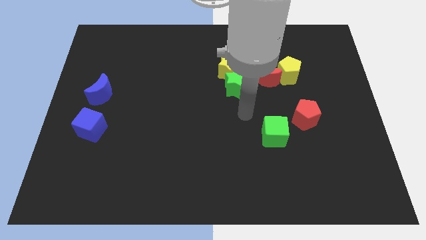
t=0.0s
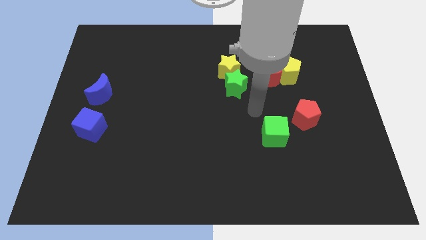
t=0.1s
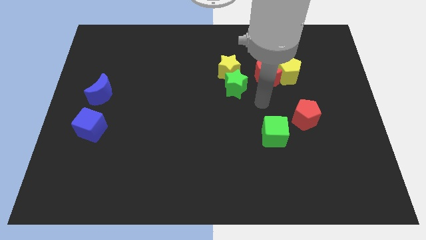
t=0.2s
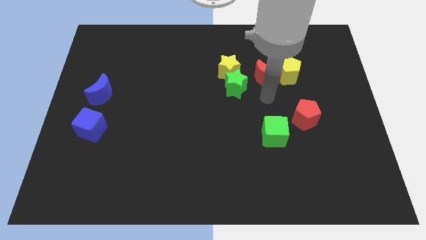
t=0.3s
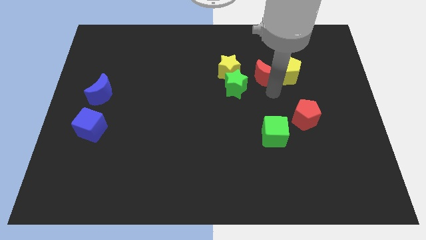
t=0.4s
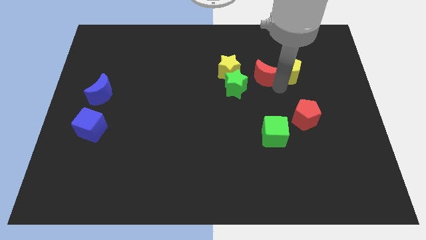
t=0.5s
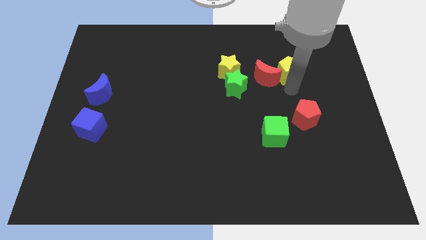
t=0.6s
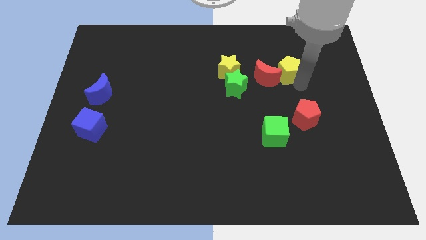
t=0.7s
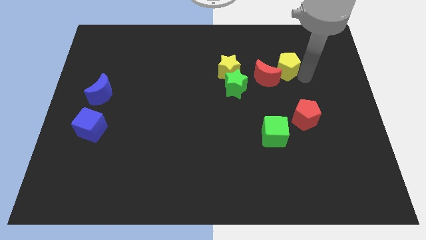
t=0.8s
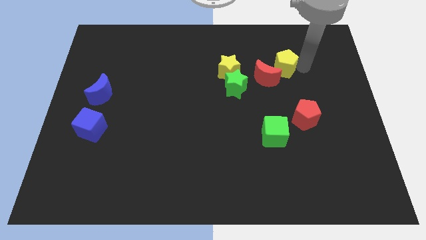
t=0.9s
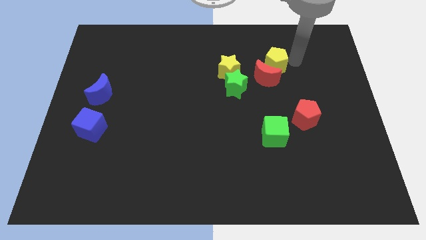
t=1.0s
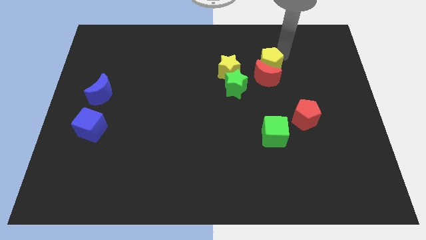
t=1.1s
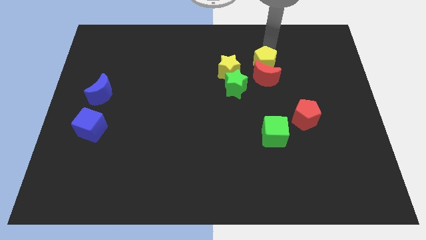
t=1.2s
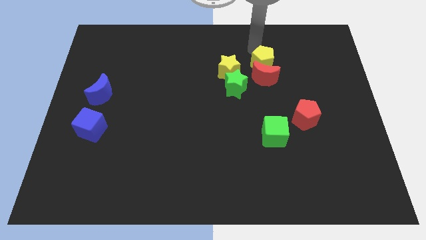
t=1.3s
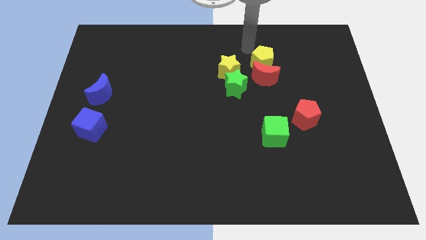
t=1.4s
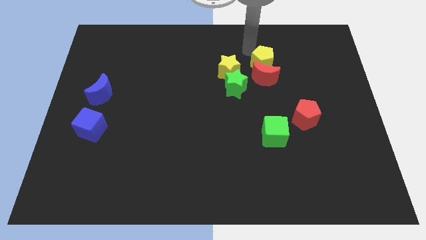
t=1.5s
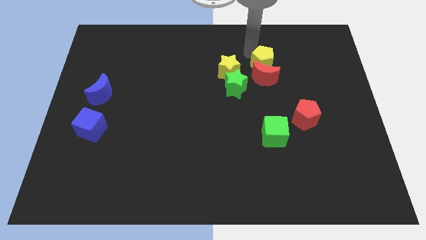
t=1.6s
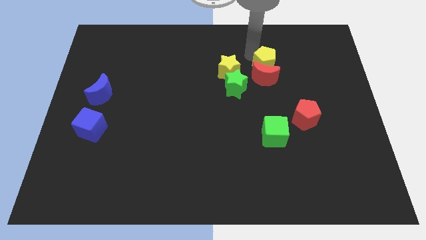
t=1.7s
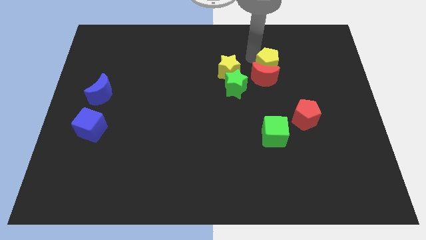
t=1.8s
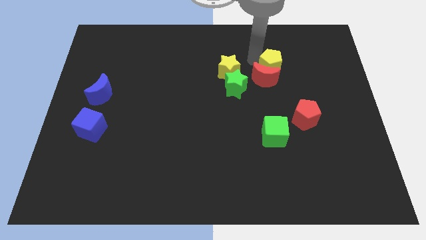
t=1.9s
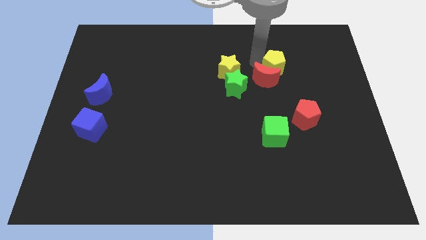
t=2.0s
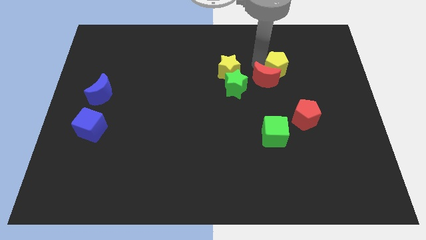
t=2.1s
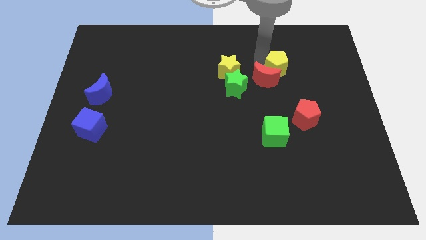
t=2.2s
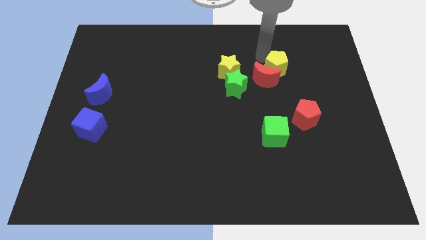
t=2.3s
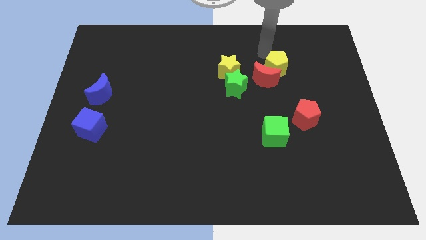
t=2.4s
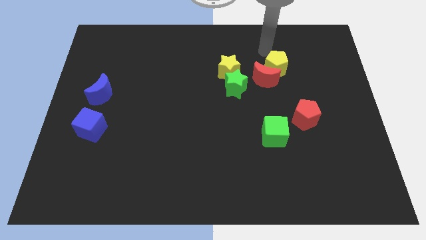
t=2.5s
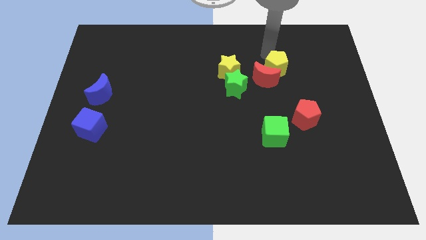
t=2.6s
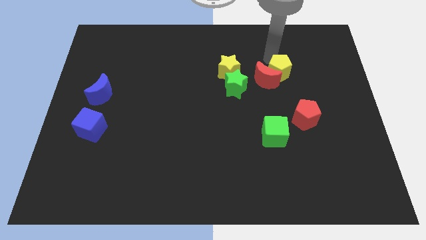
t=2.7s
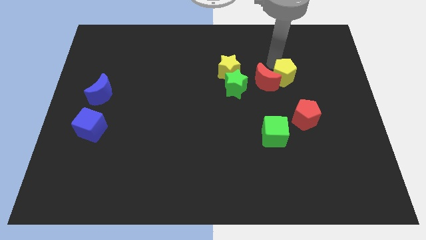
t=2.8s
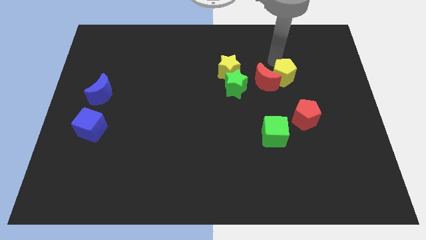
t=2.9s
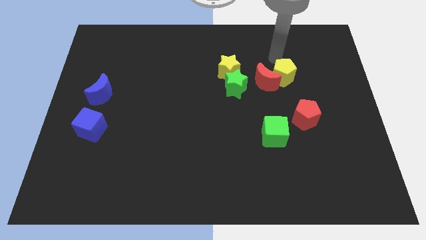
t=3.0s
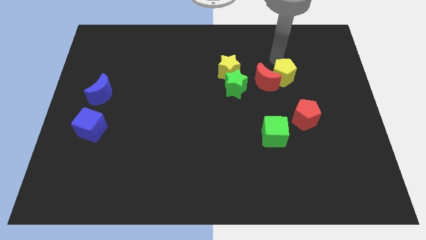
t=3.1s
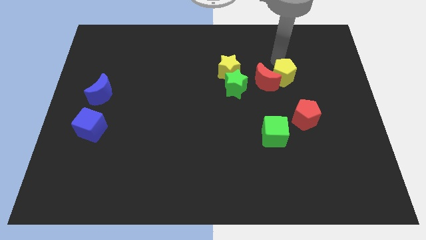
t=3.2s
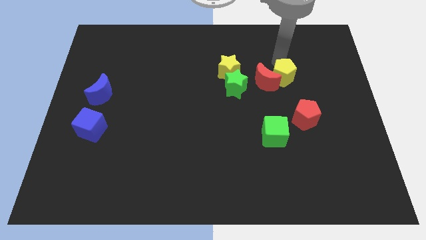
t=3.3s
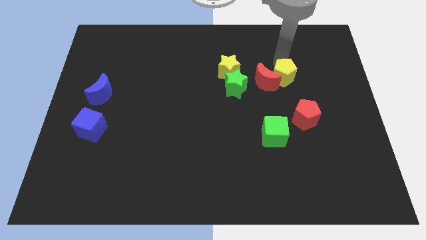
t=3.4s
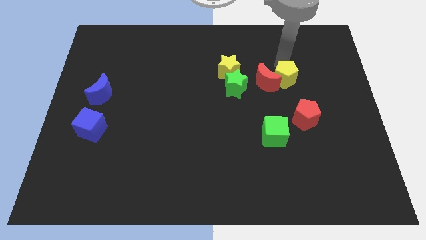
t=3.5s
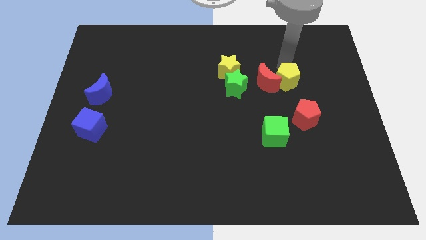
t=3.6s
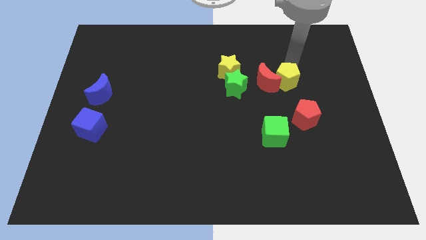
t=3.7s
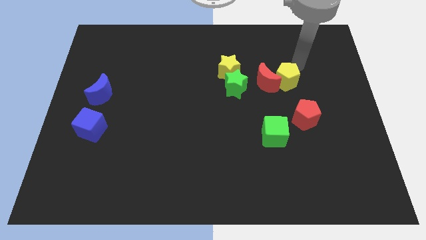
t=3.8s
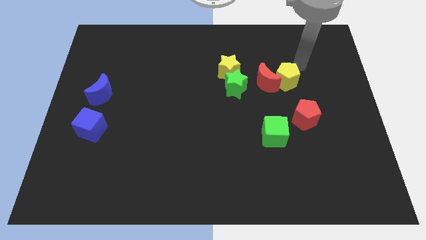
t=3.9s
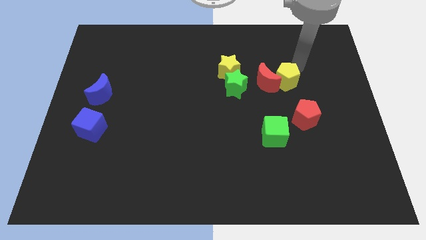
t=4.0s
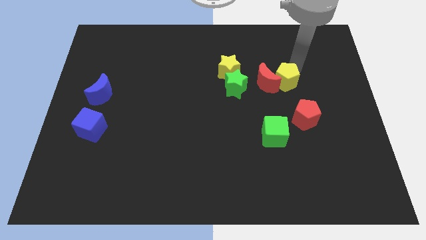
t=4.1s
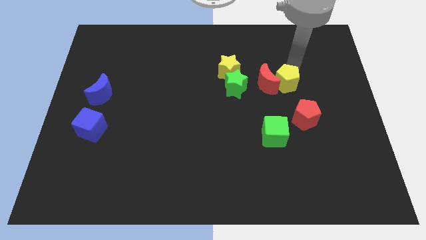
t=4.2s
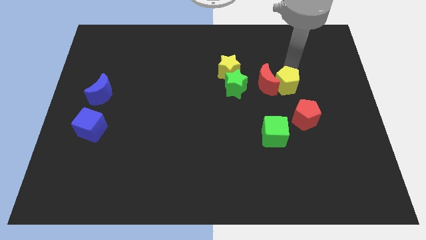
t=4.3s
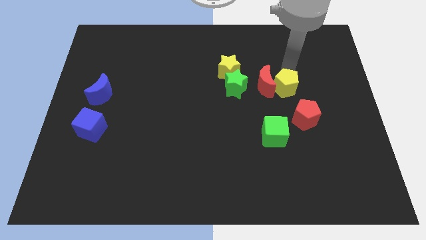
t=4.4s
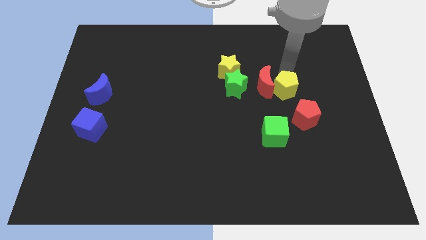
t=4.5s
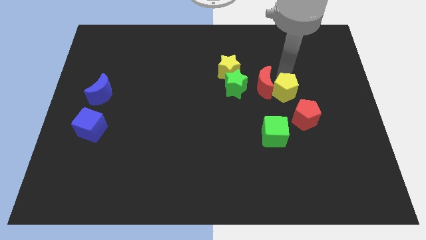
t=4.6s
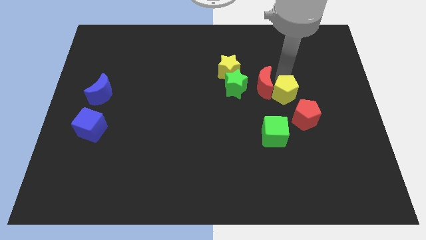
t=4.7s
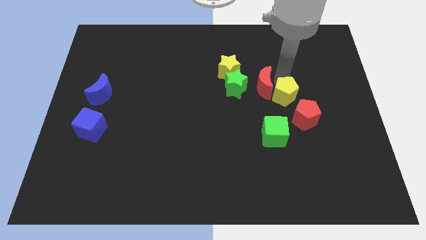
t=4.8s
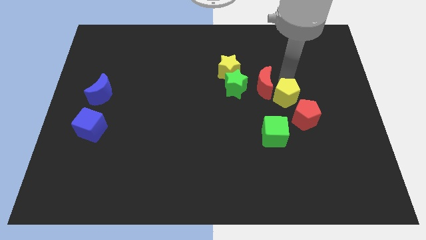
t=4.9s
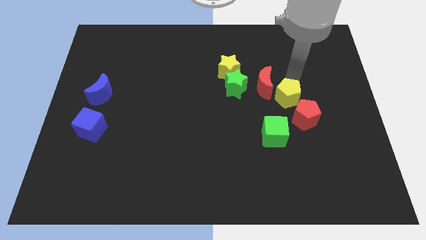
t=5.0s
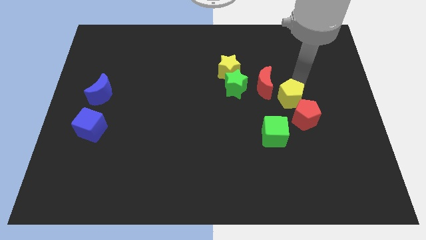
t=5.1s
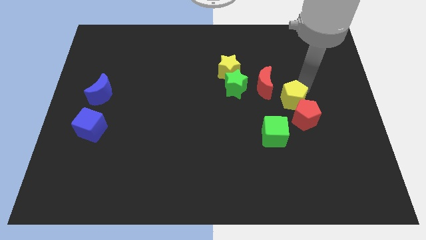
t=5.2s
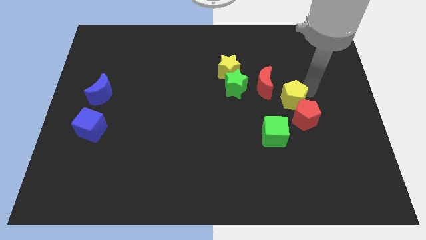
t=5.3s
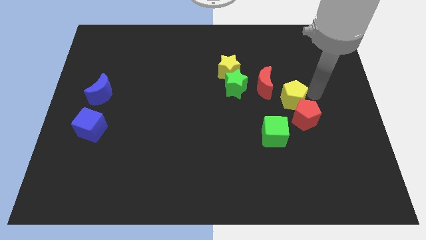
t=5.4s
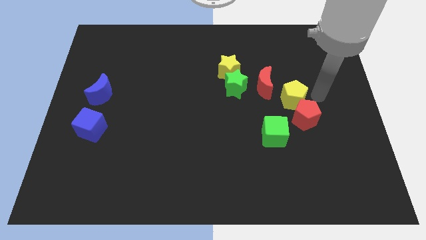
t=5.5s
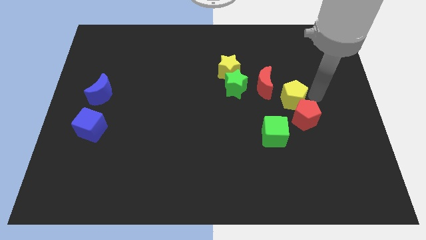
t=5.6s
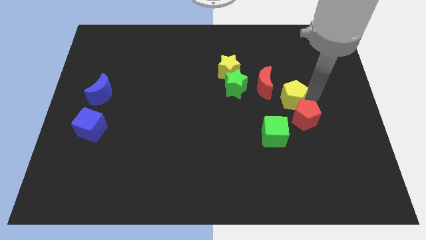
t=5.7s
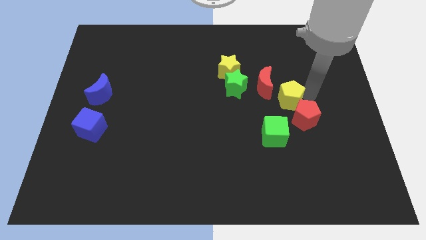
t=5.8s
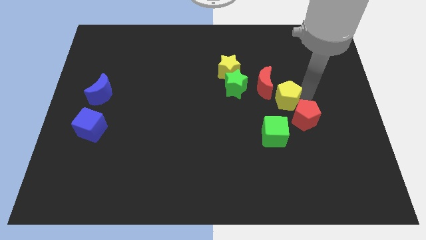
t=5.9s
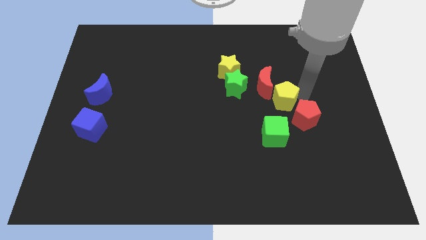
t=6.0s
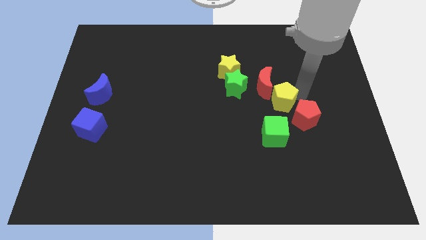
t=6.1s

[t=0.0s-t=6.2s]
slide the yellow pentagon a little down and then left

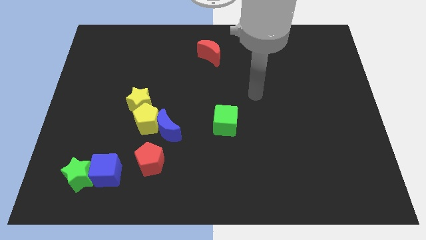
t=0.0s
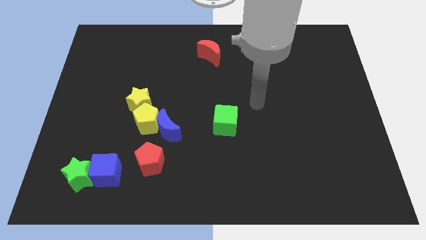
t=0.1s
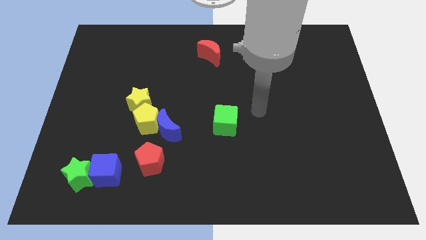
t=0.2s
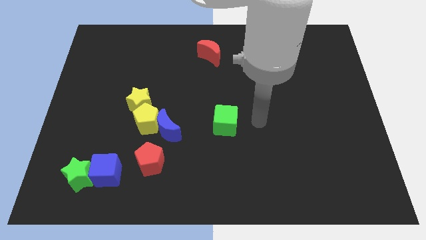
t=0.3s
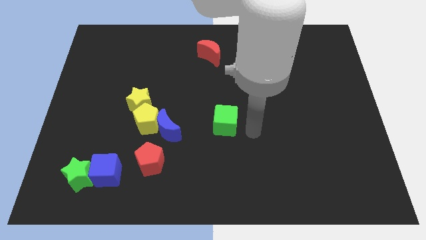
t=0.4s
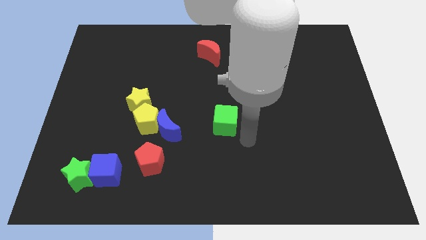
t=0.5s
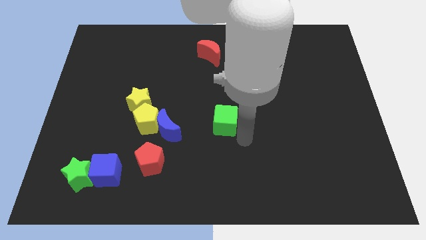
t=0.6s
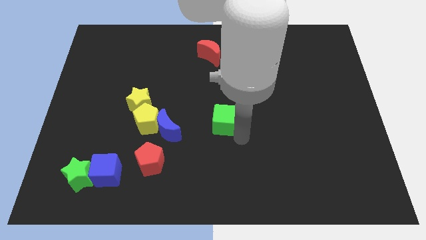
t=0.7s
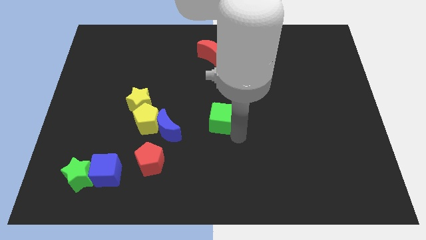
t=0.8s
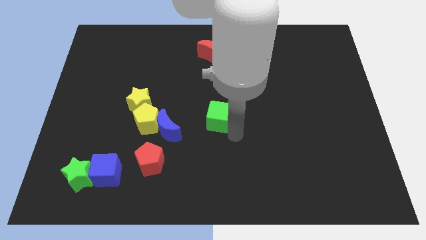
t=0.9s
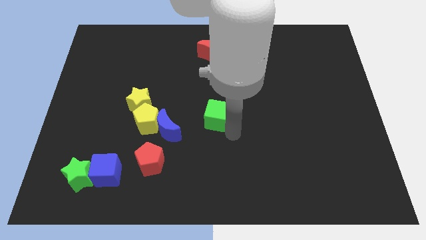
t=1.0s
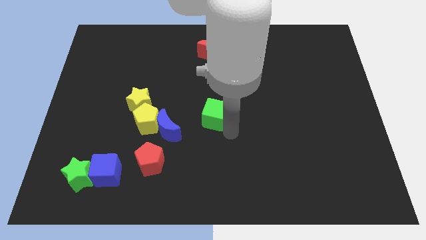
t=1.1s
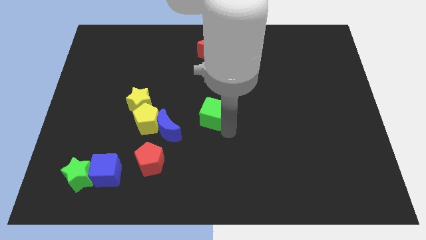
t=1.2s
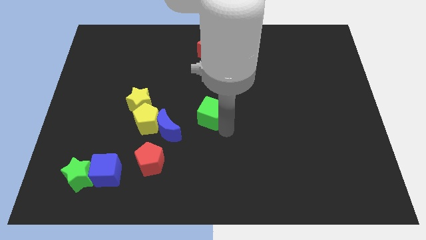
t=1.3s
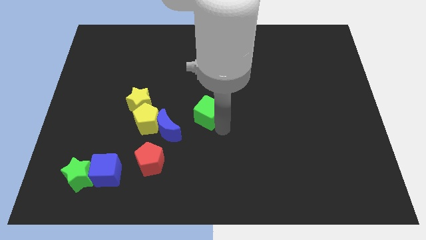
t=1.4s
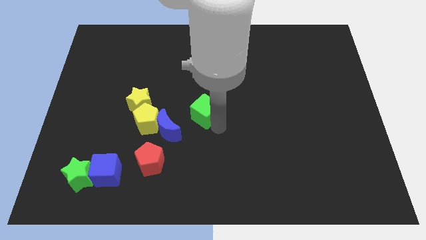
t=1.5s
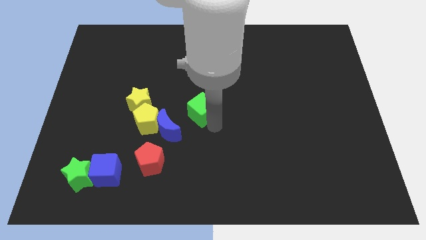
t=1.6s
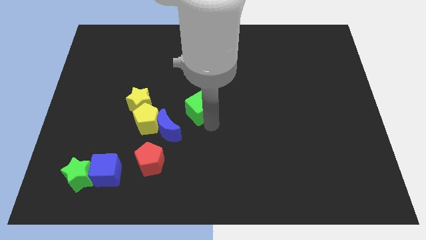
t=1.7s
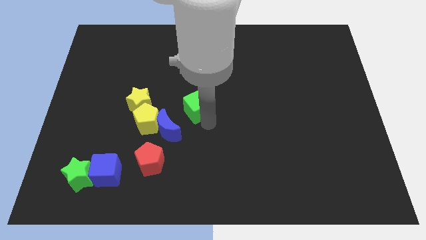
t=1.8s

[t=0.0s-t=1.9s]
move the green cube a bit up and to the left
